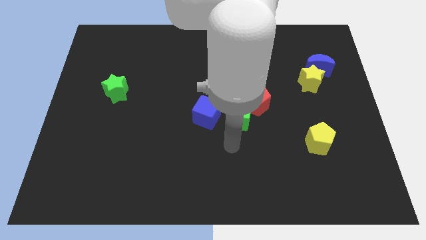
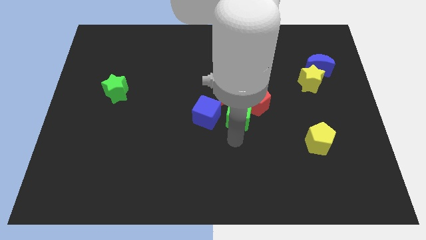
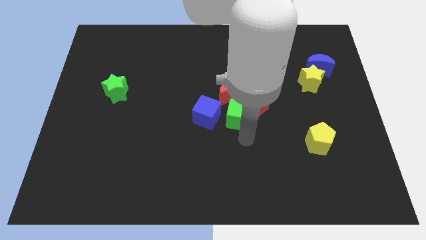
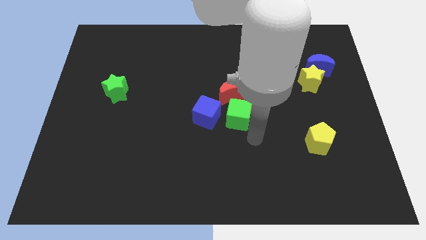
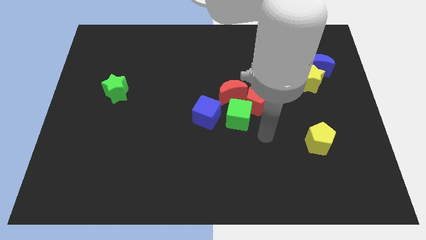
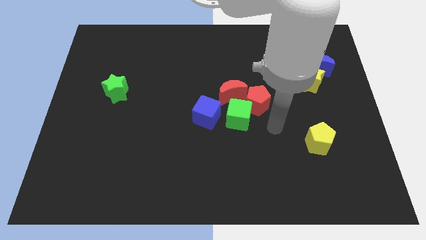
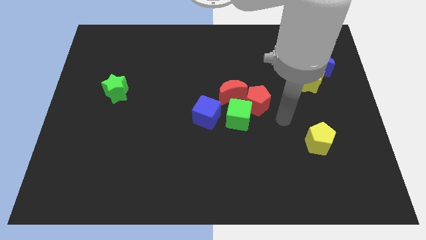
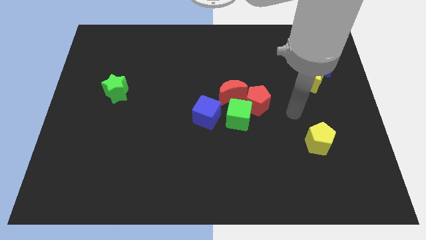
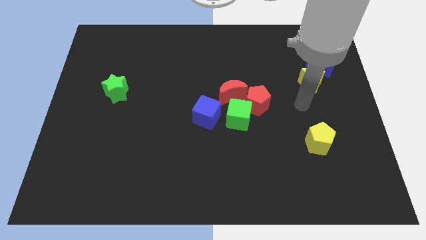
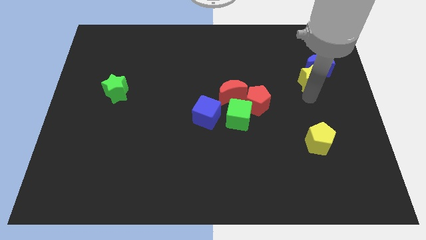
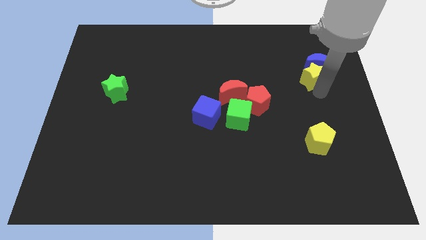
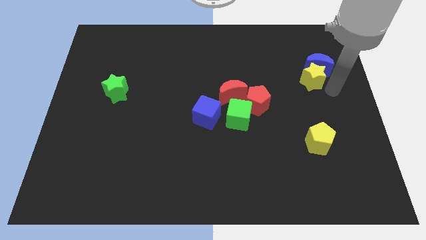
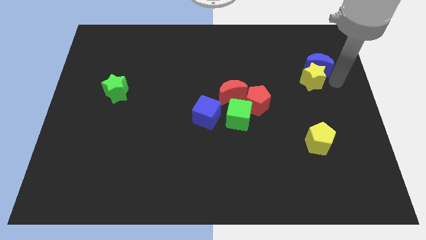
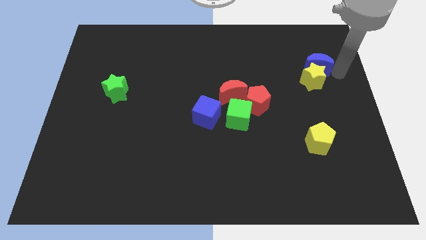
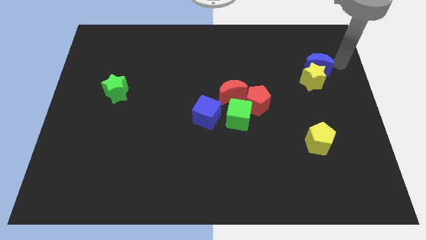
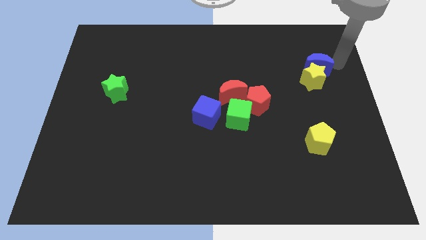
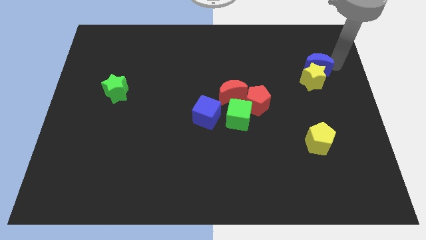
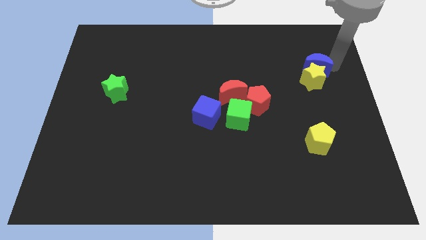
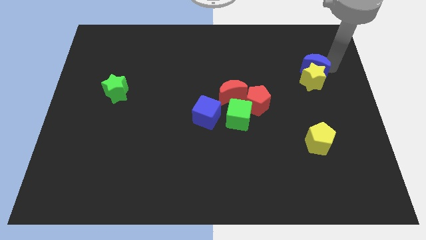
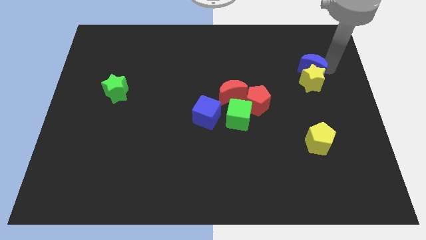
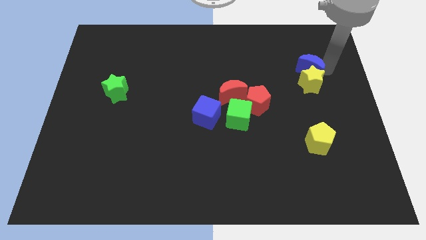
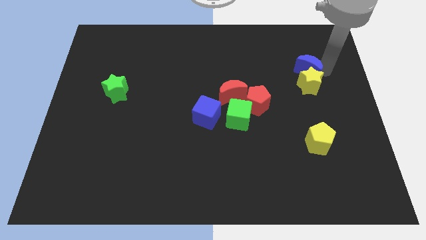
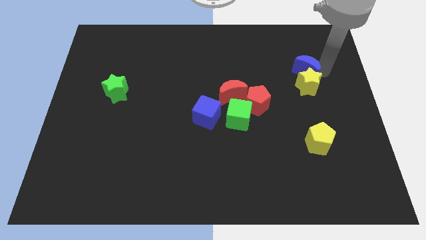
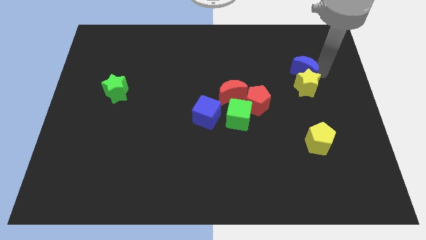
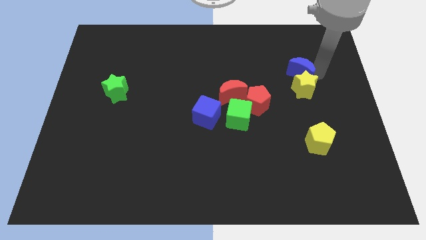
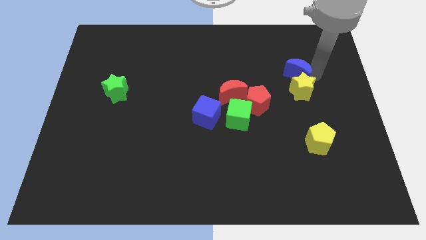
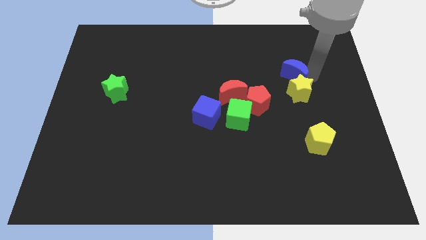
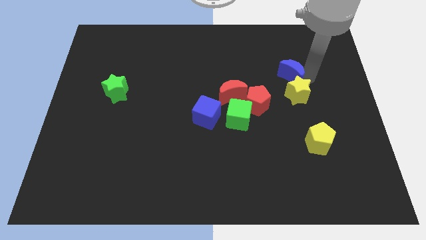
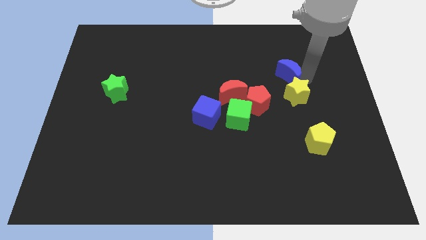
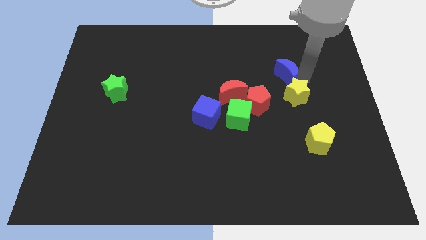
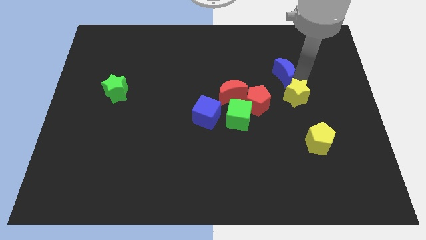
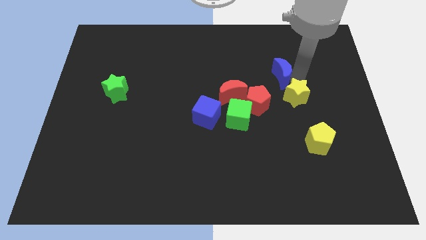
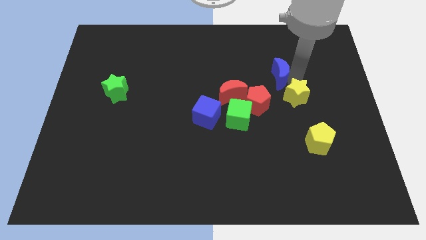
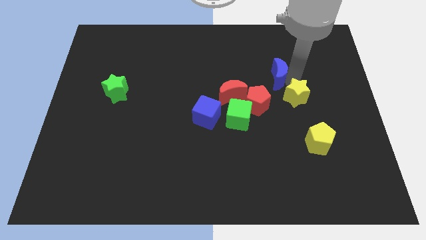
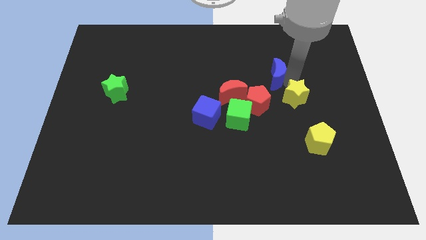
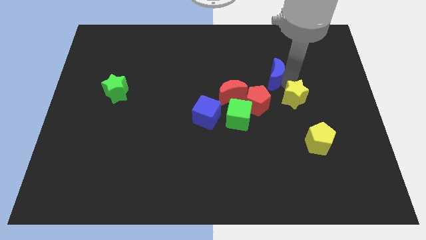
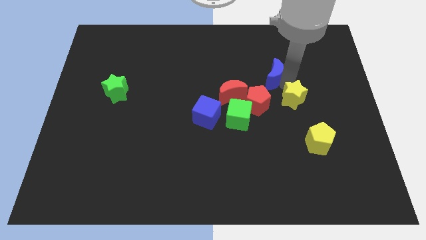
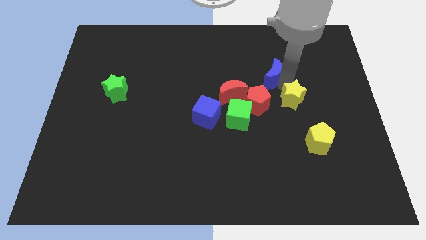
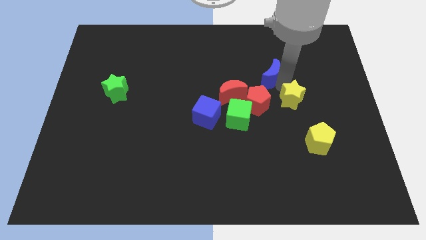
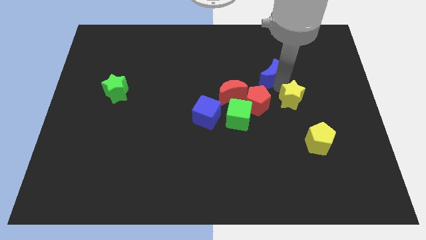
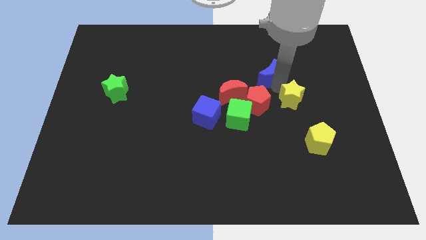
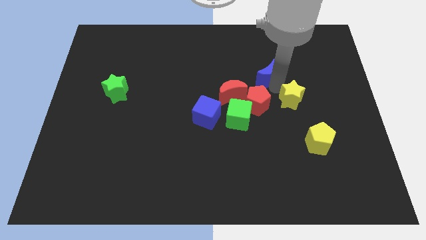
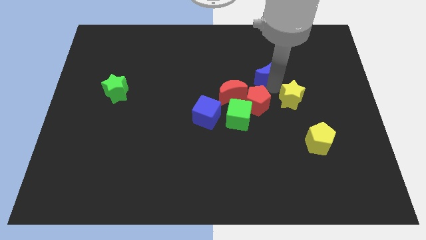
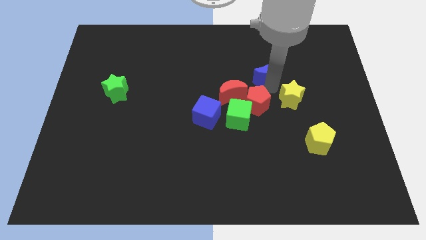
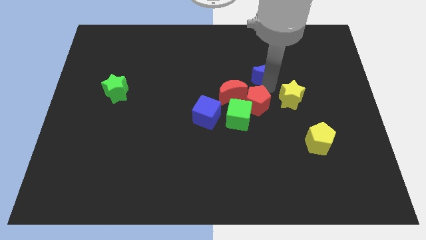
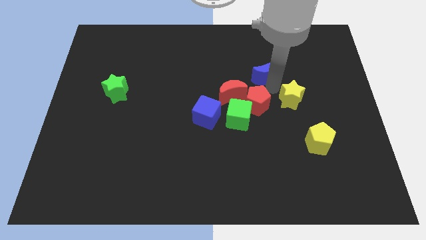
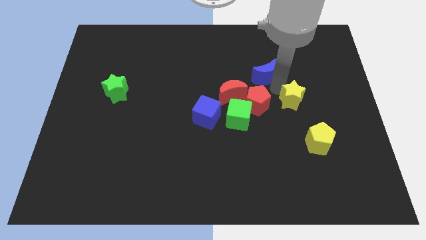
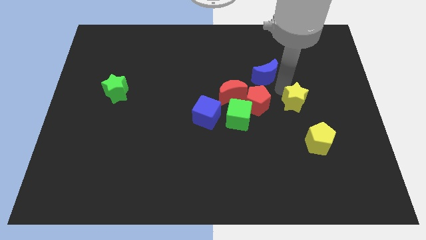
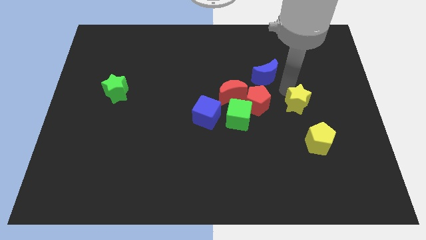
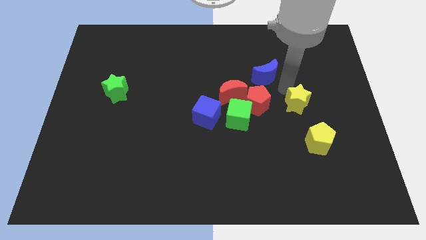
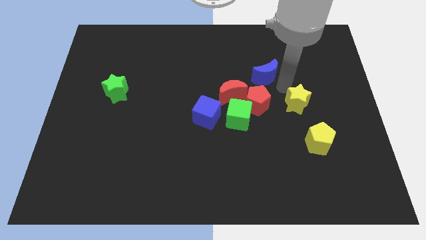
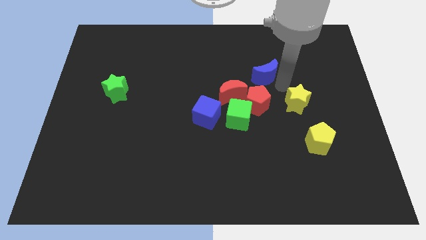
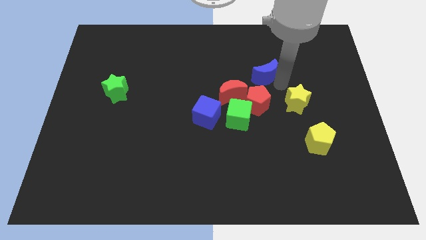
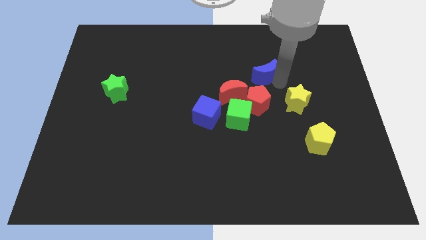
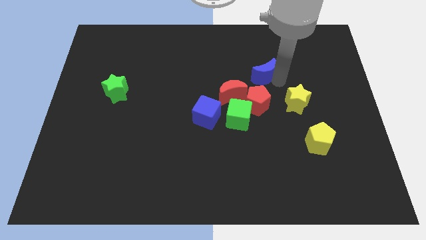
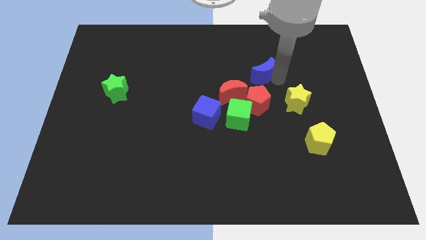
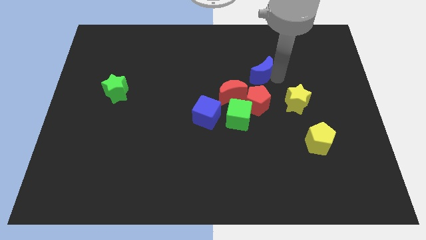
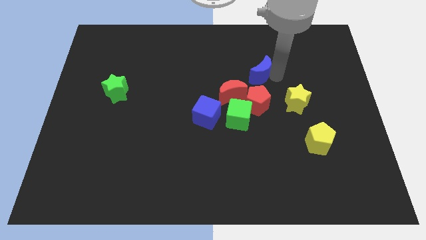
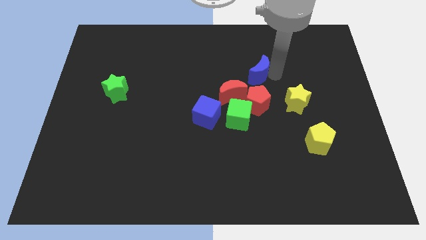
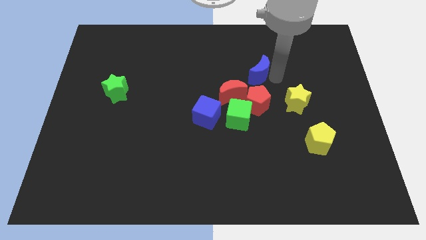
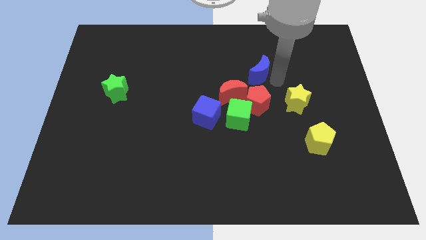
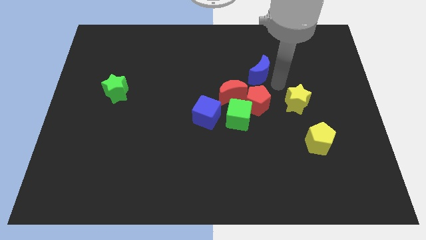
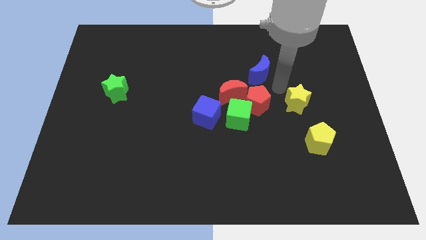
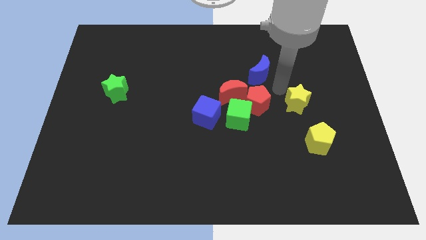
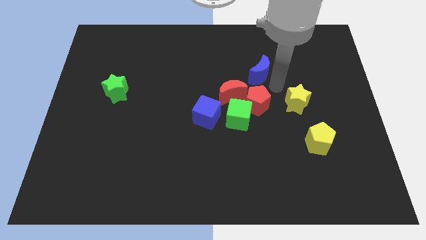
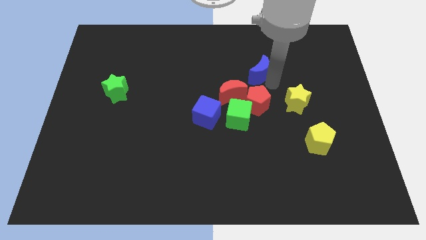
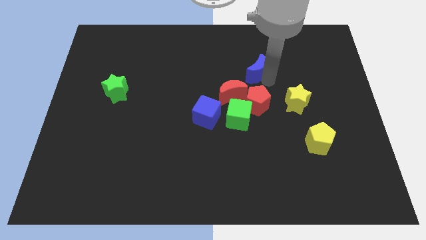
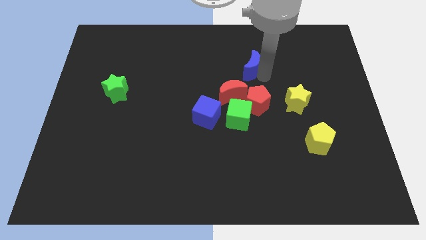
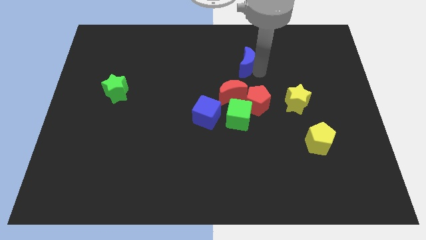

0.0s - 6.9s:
put the blue moon above the red moon
